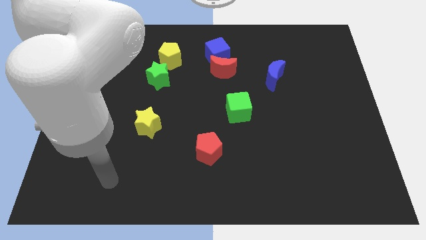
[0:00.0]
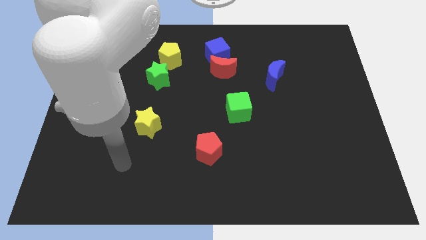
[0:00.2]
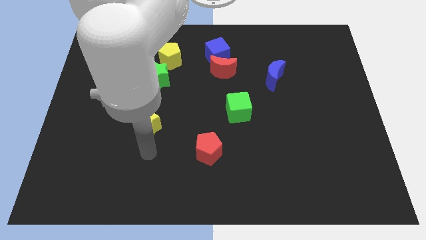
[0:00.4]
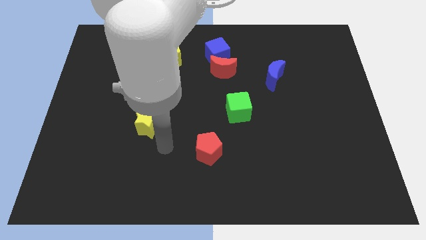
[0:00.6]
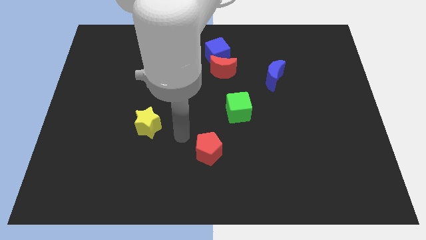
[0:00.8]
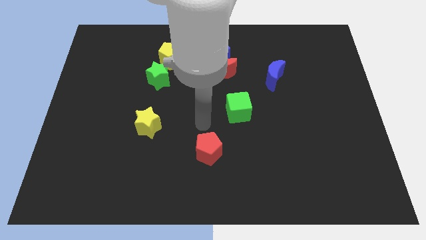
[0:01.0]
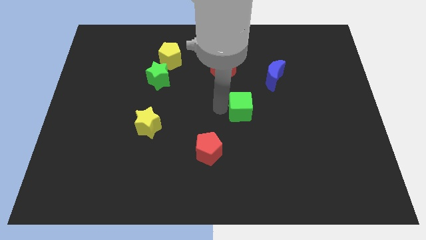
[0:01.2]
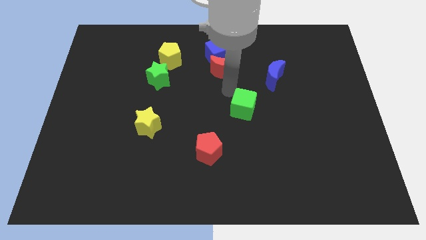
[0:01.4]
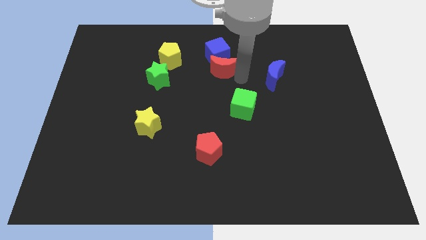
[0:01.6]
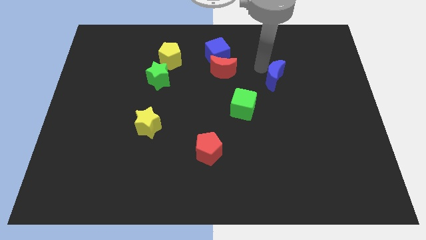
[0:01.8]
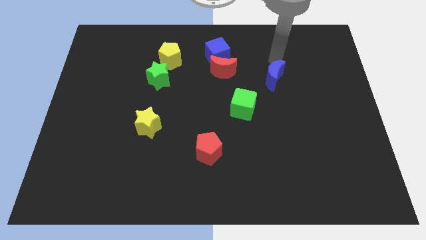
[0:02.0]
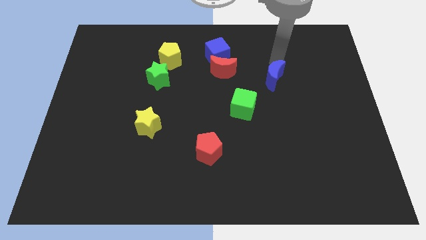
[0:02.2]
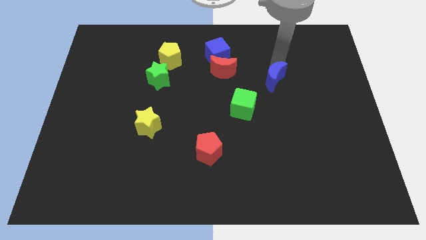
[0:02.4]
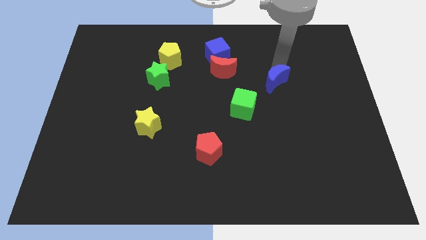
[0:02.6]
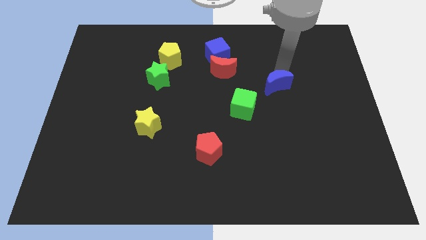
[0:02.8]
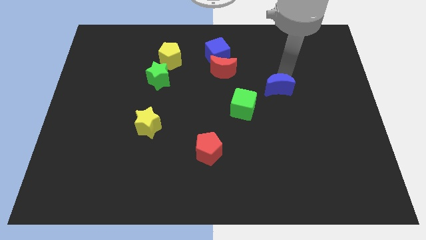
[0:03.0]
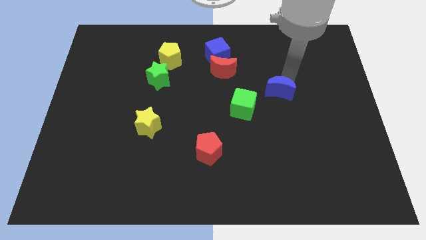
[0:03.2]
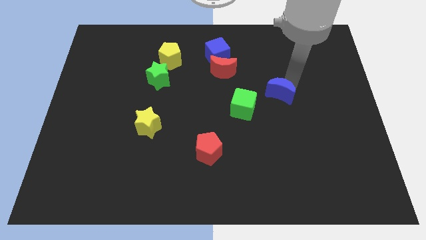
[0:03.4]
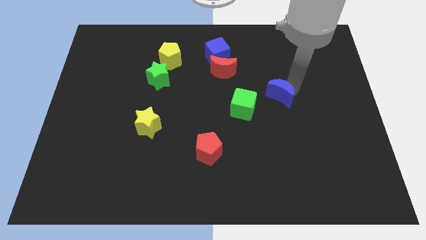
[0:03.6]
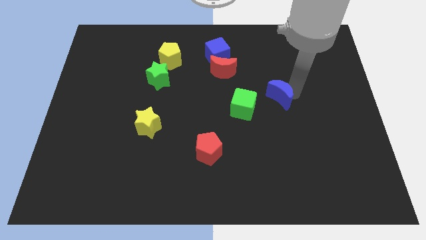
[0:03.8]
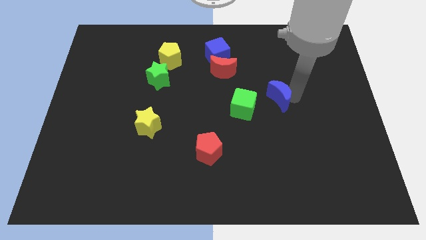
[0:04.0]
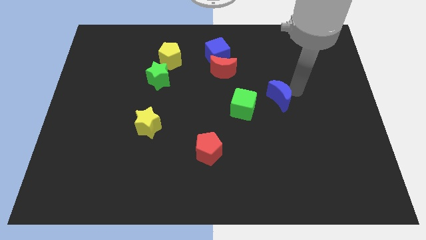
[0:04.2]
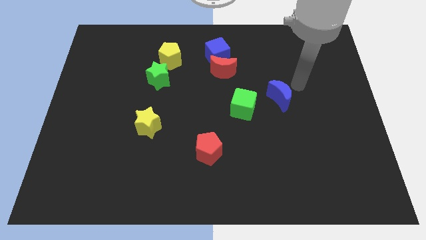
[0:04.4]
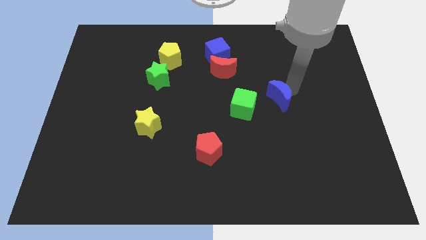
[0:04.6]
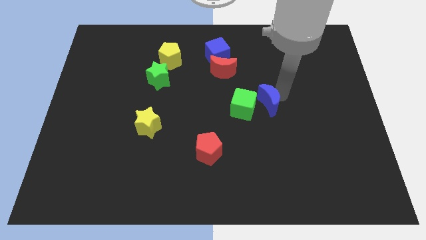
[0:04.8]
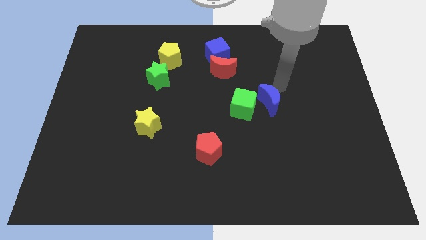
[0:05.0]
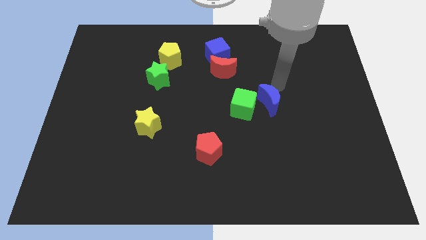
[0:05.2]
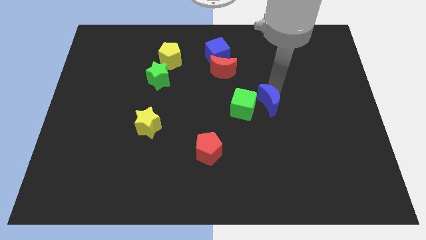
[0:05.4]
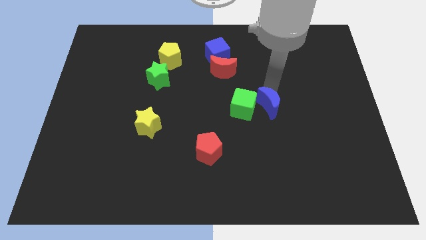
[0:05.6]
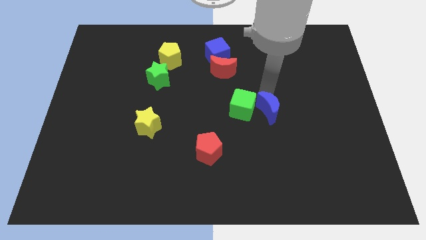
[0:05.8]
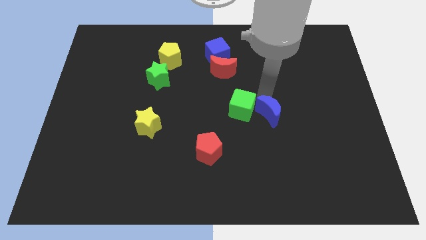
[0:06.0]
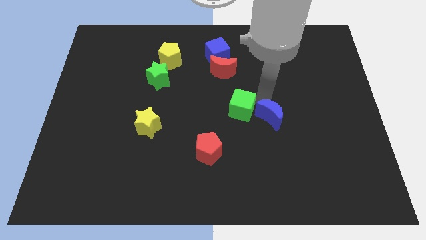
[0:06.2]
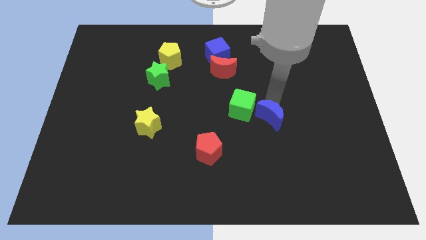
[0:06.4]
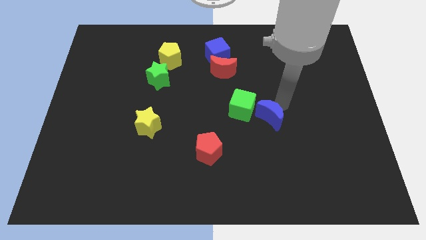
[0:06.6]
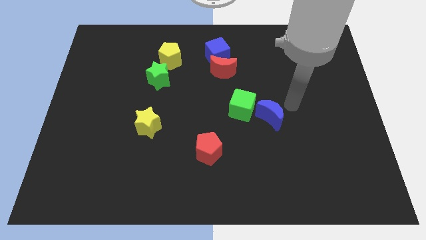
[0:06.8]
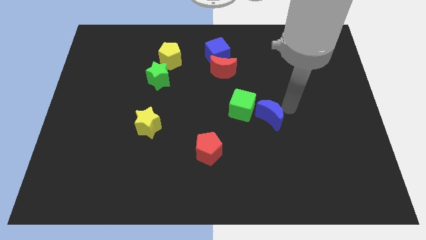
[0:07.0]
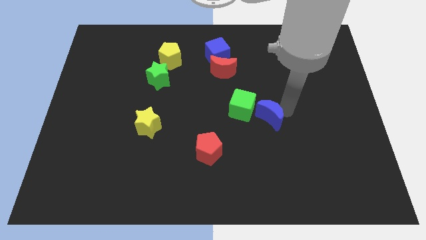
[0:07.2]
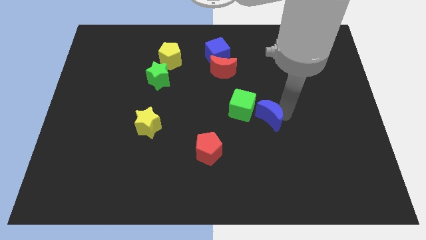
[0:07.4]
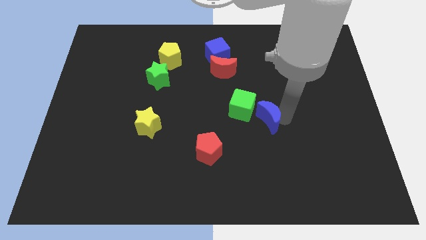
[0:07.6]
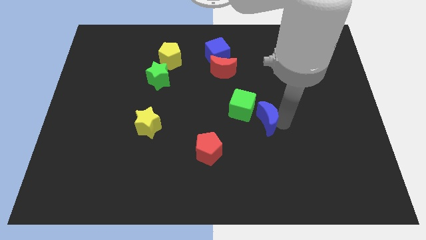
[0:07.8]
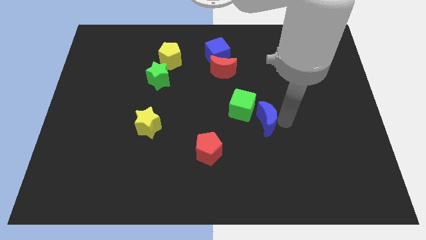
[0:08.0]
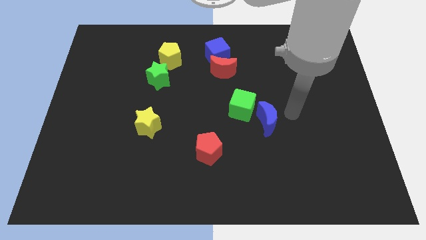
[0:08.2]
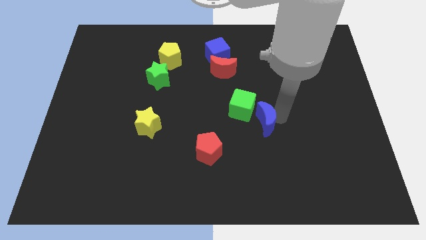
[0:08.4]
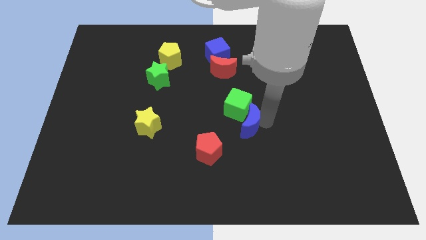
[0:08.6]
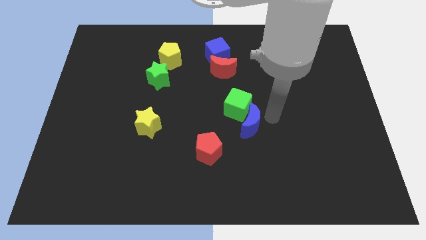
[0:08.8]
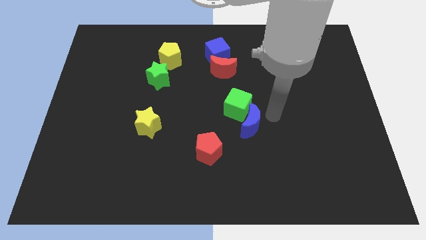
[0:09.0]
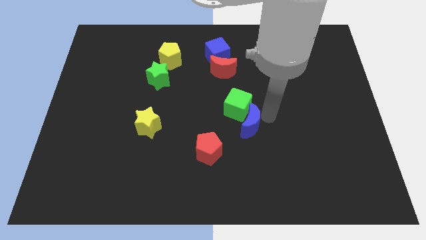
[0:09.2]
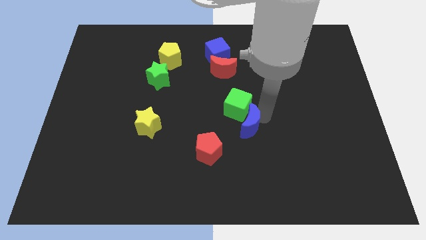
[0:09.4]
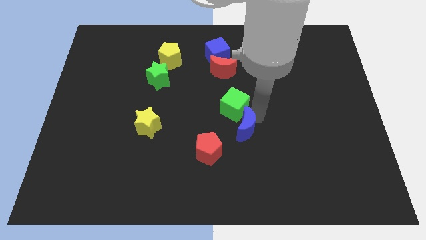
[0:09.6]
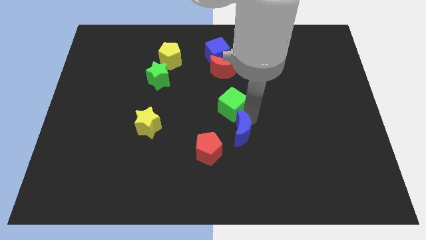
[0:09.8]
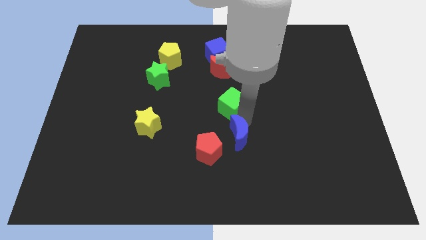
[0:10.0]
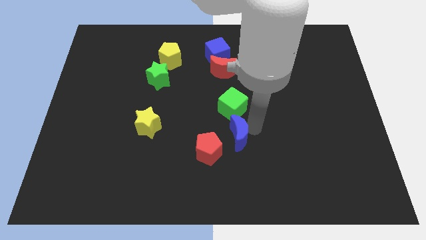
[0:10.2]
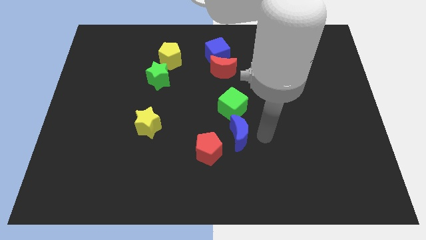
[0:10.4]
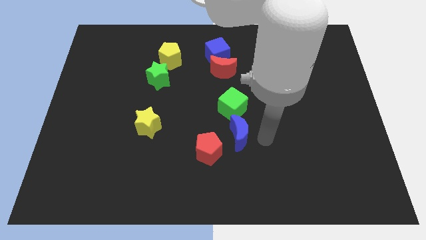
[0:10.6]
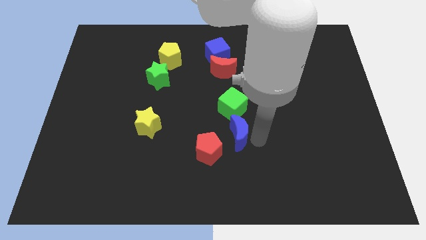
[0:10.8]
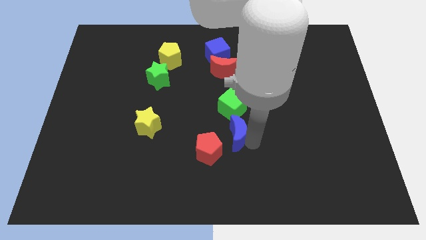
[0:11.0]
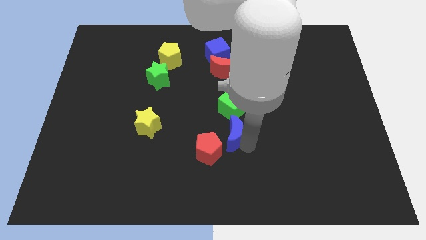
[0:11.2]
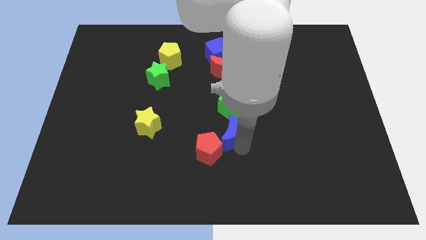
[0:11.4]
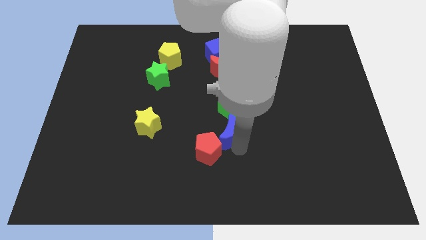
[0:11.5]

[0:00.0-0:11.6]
push the blue moon downwards and left diagonally

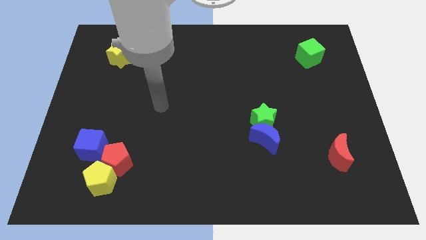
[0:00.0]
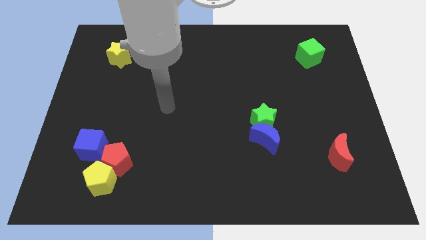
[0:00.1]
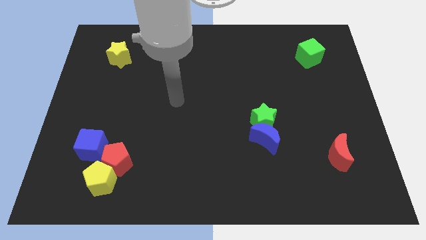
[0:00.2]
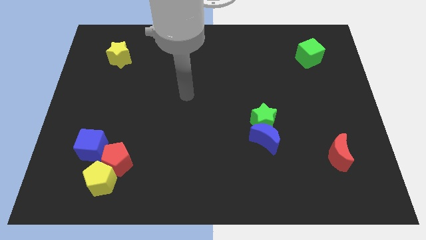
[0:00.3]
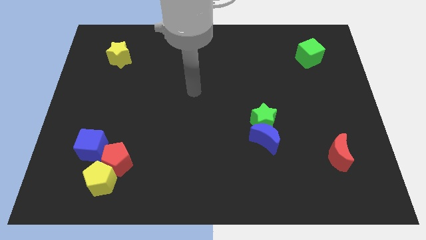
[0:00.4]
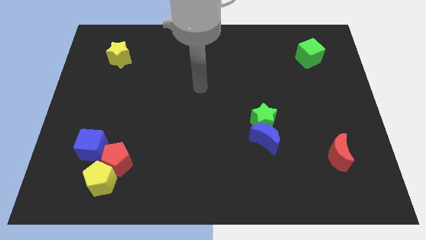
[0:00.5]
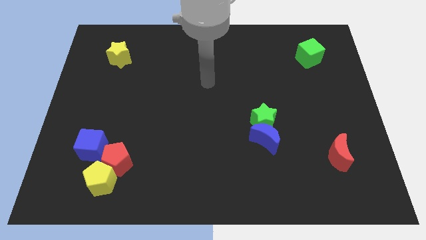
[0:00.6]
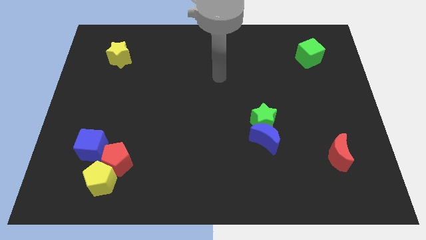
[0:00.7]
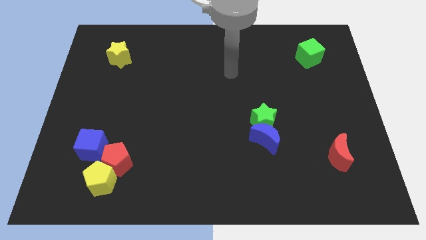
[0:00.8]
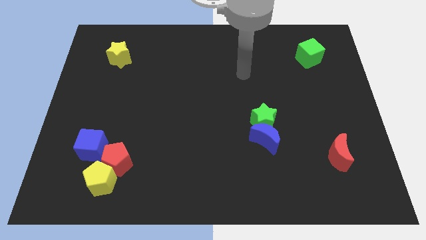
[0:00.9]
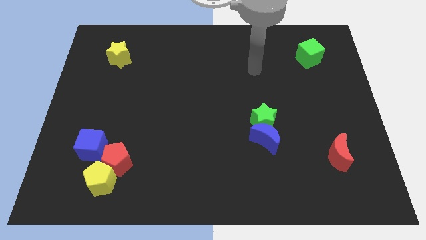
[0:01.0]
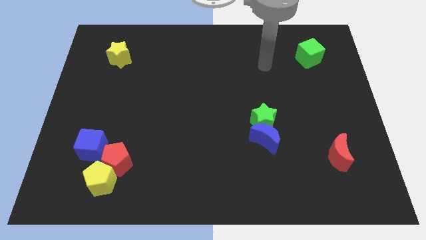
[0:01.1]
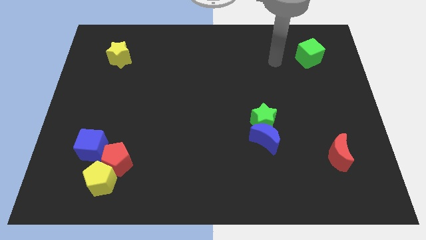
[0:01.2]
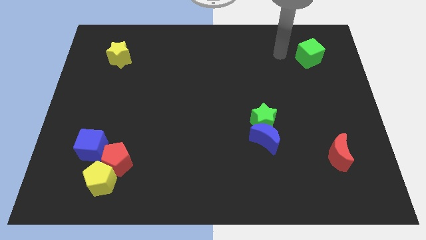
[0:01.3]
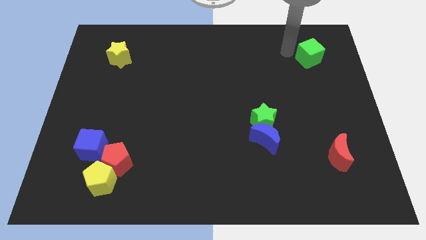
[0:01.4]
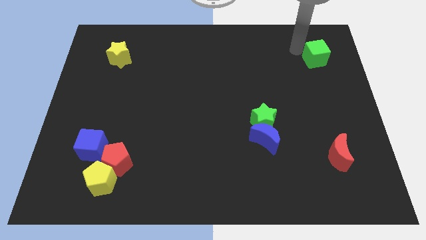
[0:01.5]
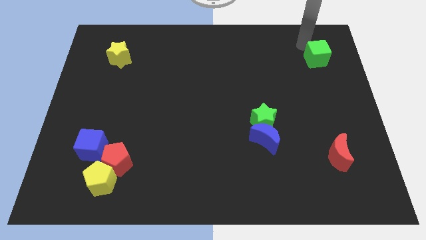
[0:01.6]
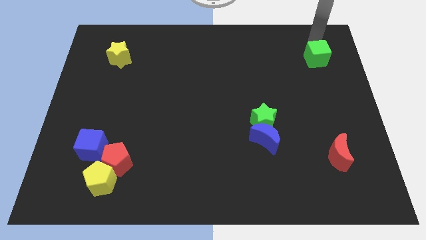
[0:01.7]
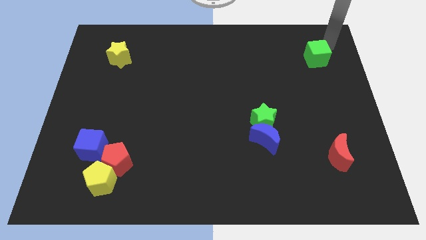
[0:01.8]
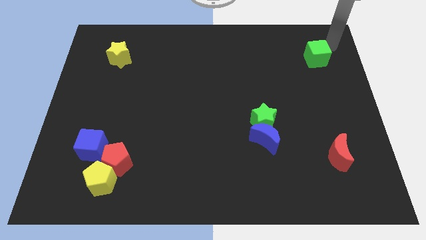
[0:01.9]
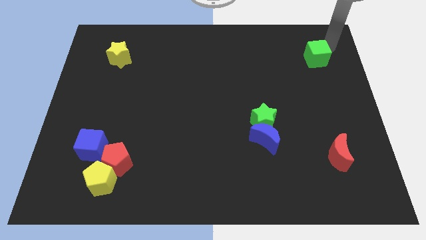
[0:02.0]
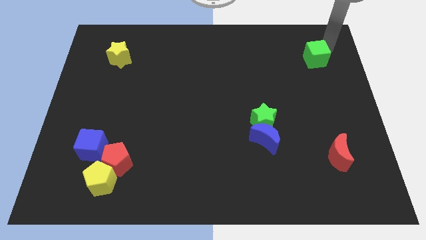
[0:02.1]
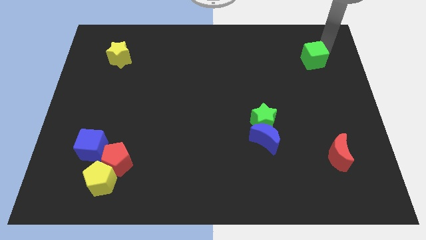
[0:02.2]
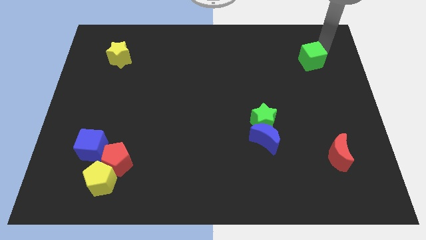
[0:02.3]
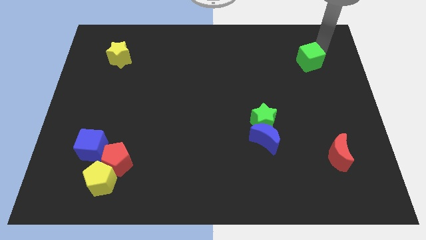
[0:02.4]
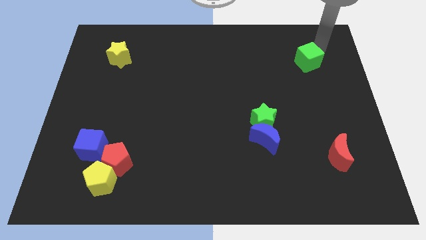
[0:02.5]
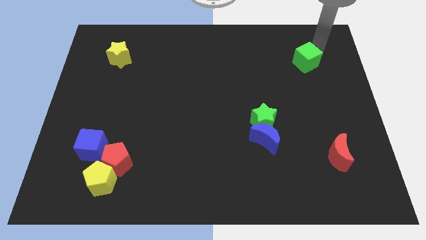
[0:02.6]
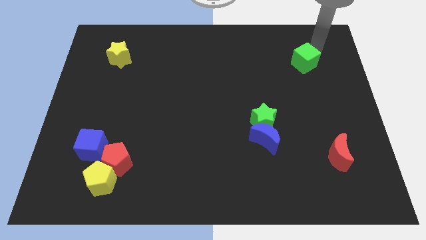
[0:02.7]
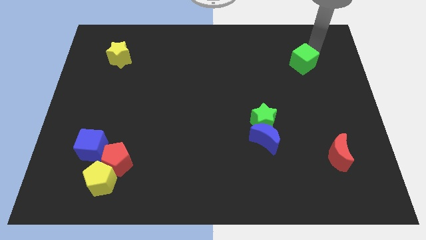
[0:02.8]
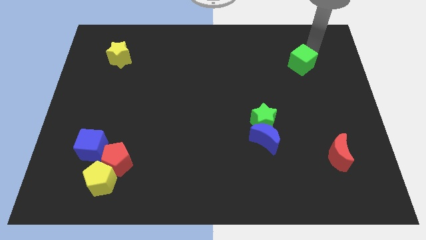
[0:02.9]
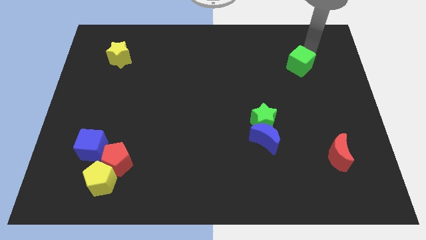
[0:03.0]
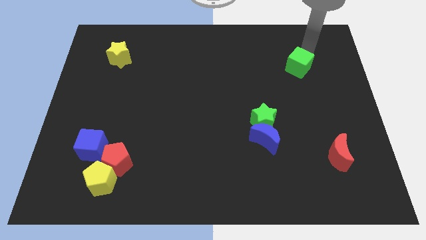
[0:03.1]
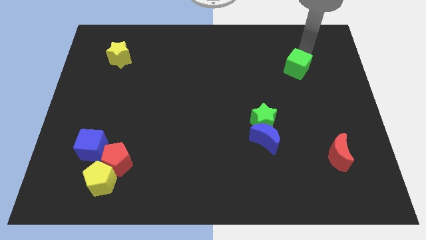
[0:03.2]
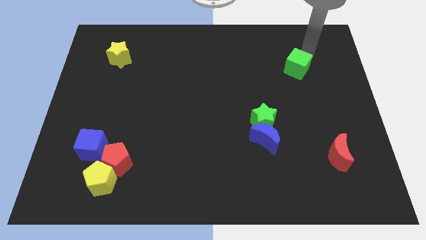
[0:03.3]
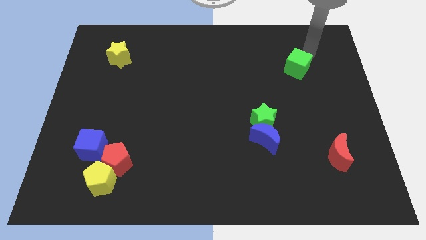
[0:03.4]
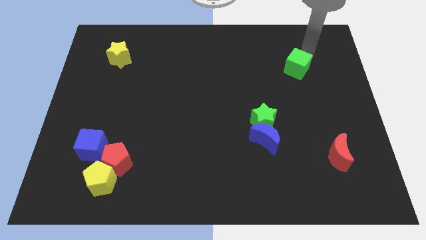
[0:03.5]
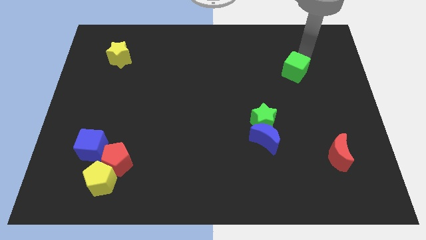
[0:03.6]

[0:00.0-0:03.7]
slightly move the green cube down and then to the left
